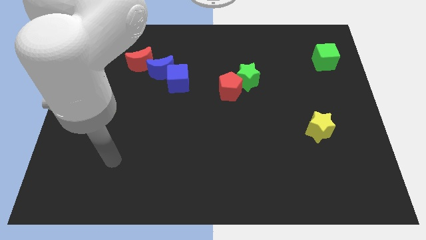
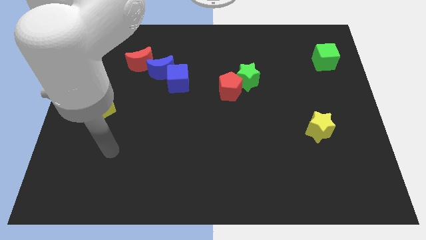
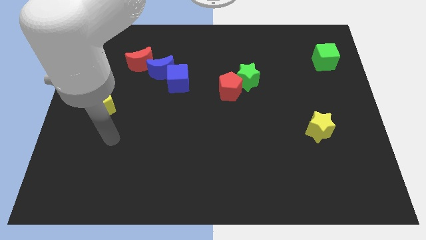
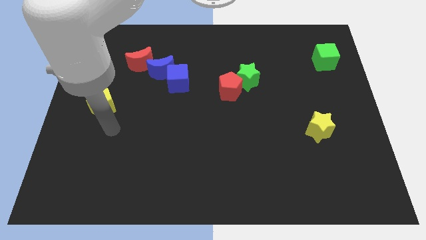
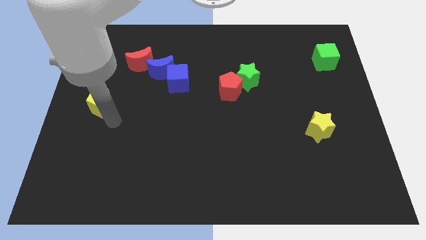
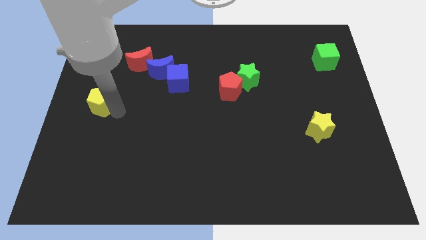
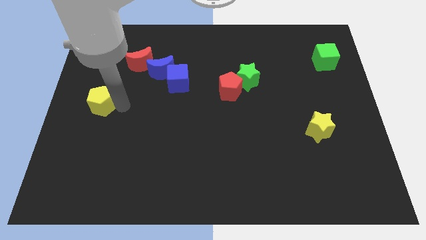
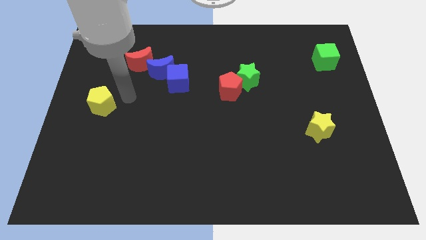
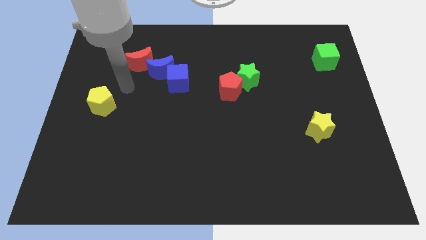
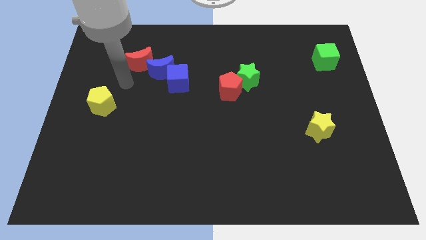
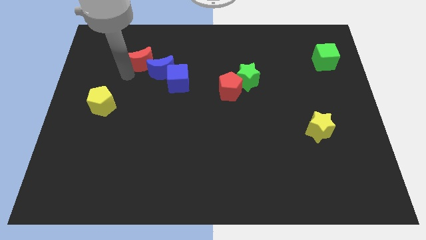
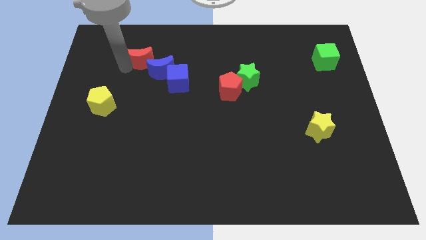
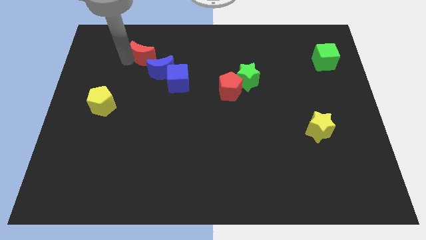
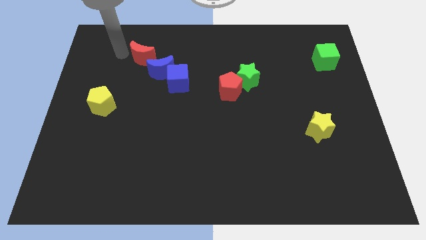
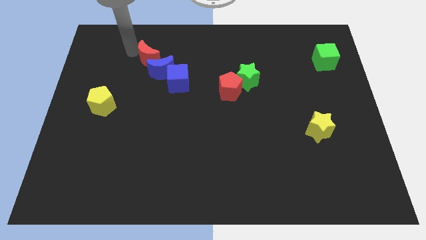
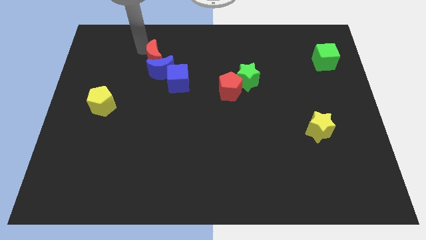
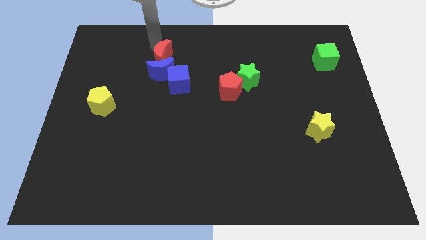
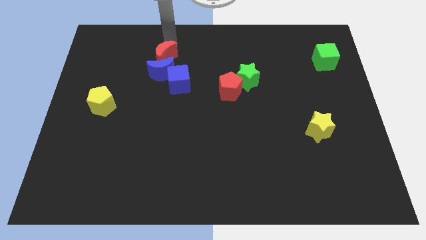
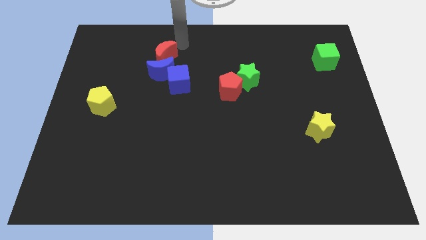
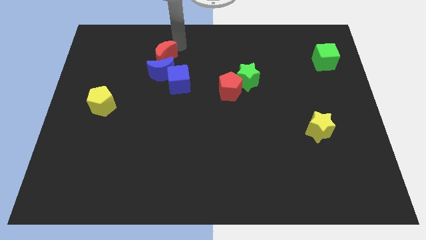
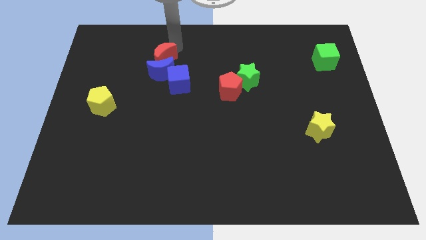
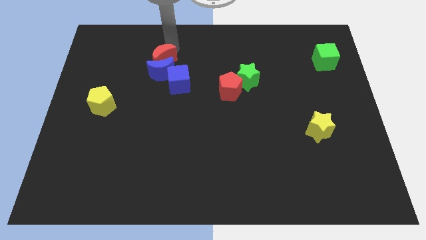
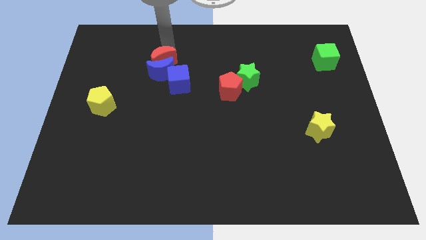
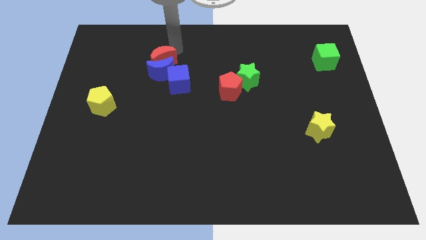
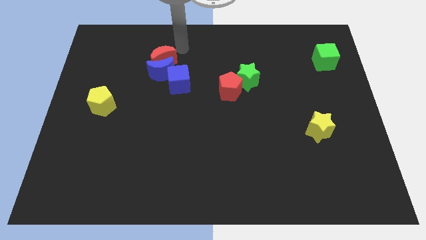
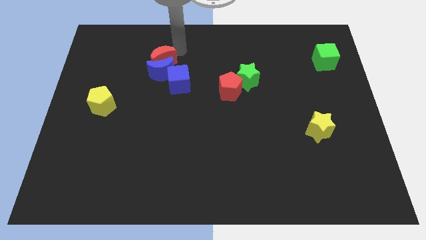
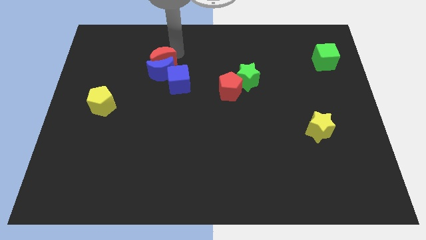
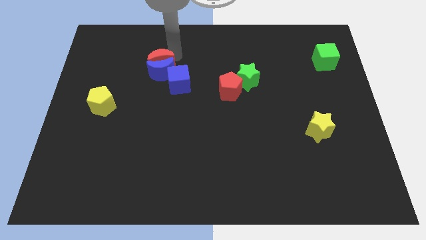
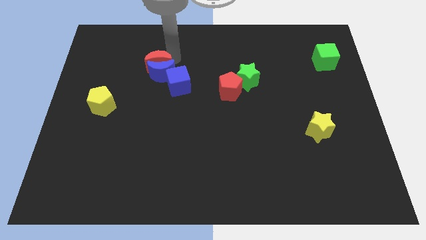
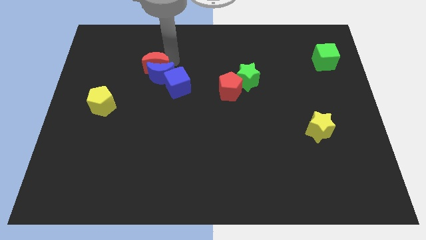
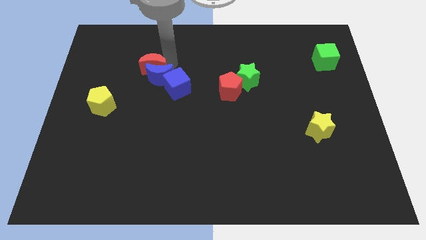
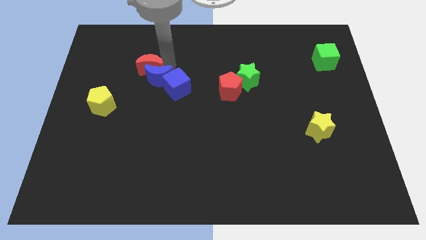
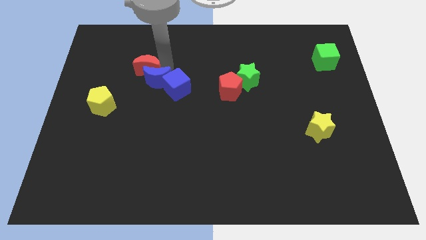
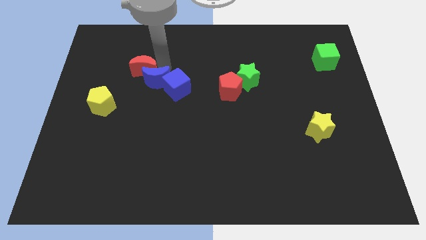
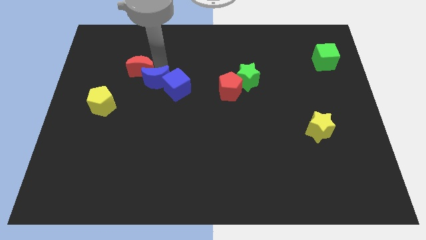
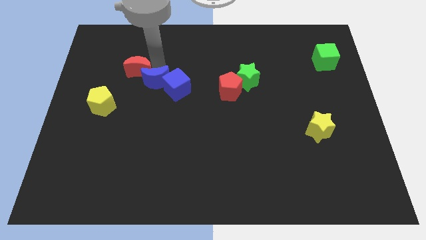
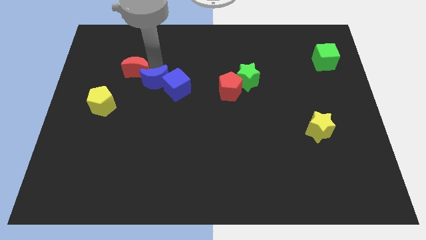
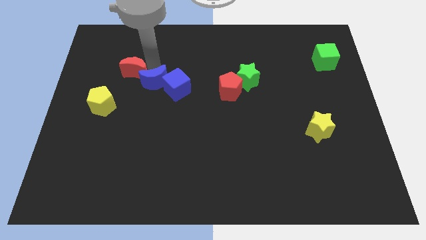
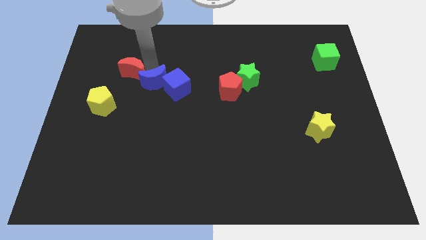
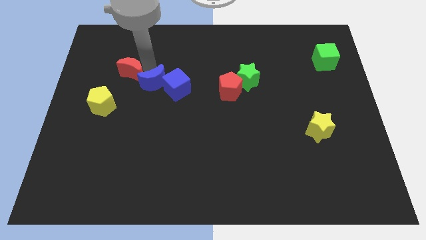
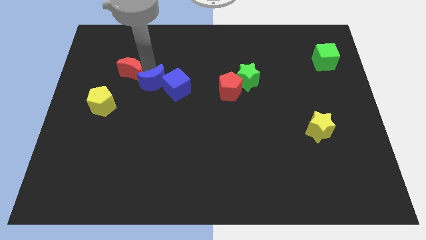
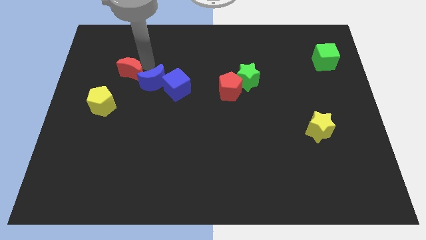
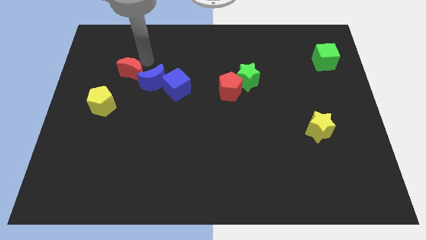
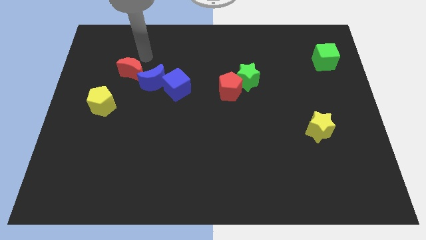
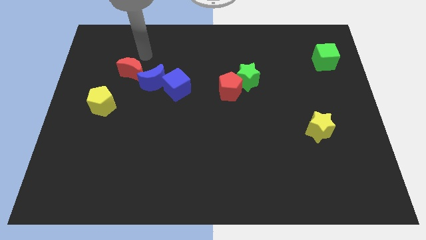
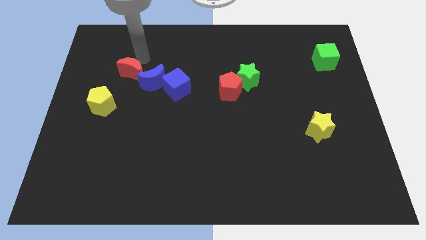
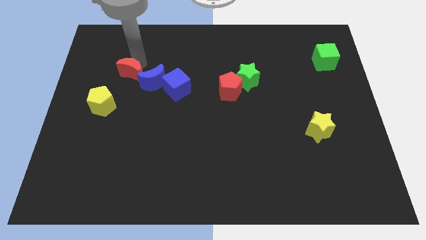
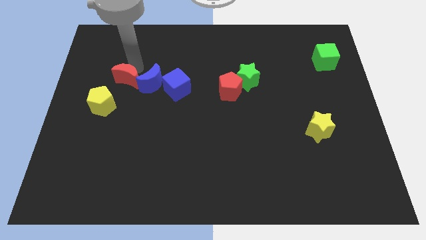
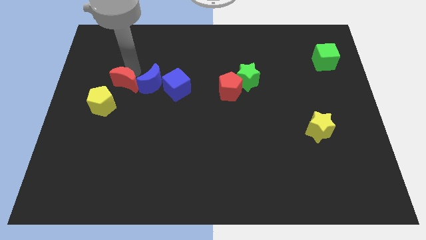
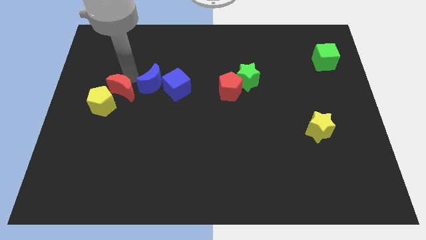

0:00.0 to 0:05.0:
put the red moon close to the yellow pentagon

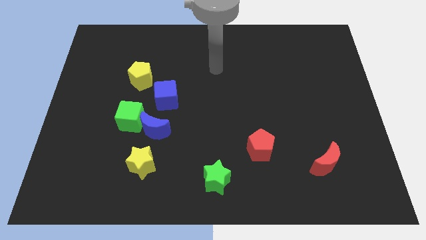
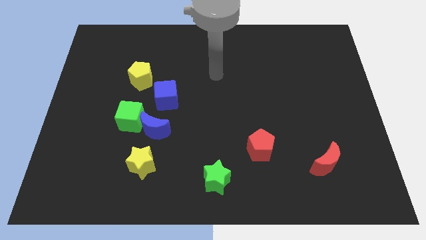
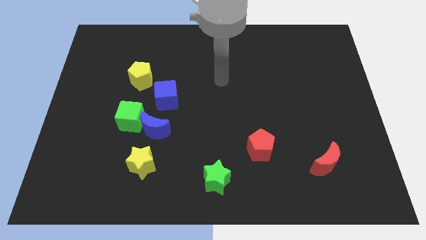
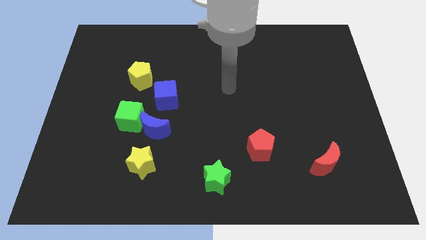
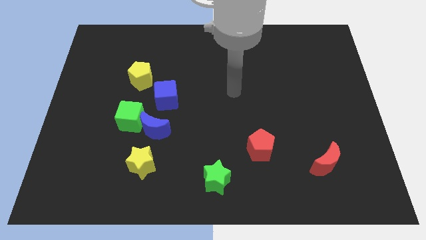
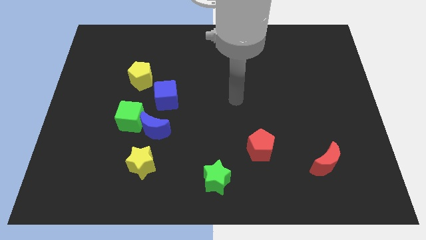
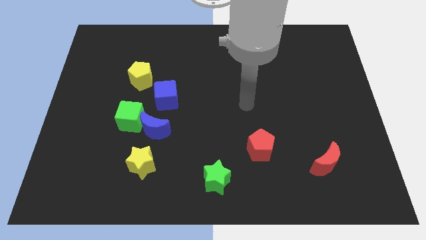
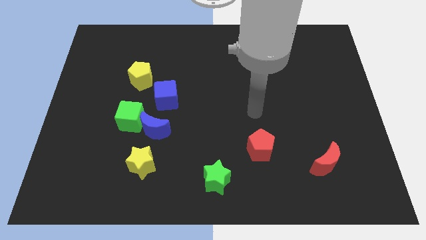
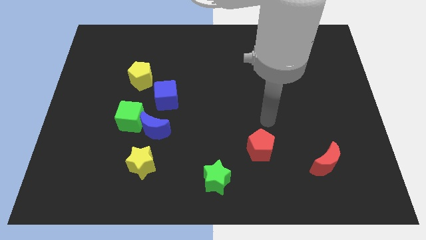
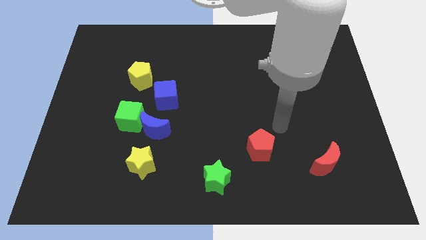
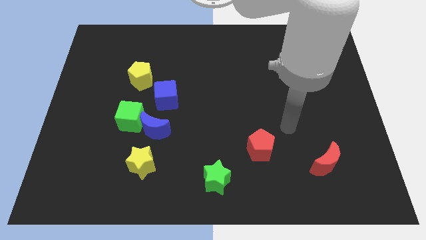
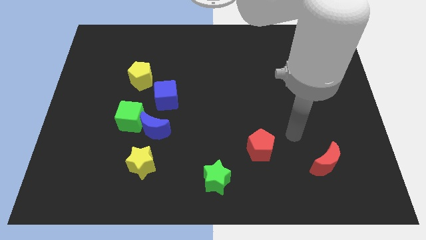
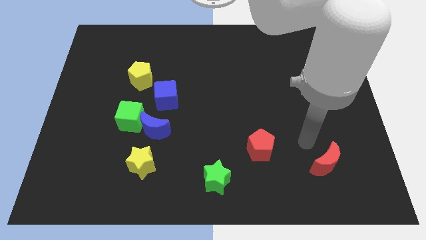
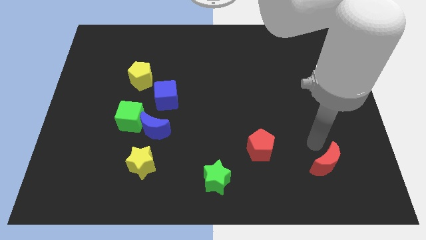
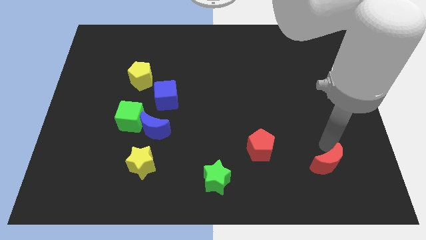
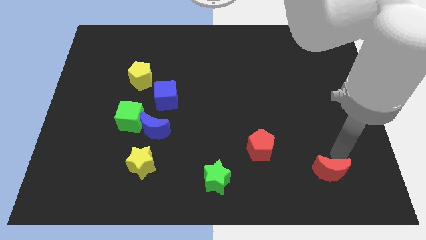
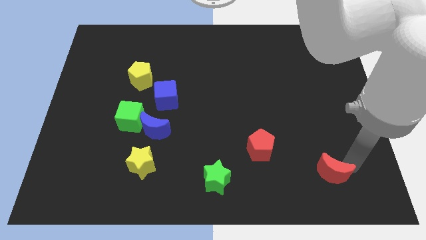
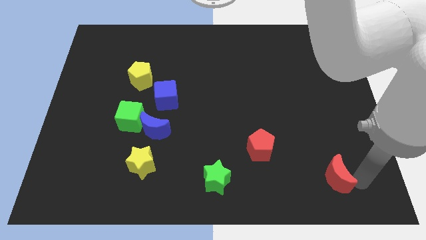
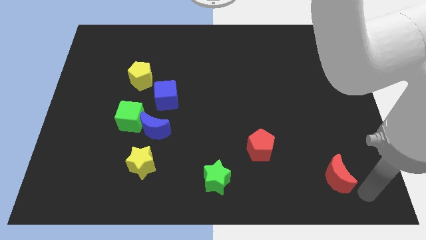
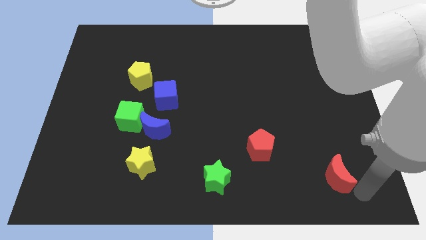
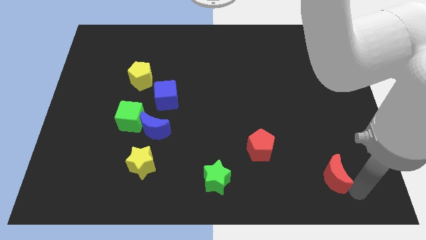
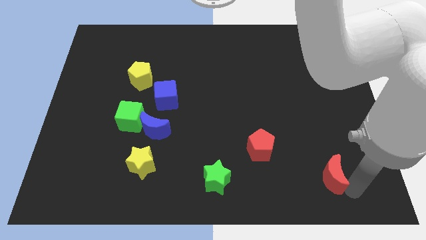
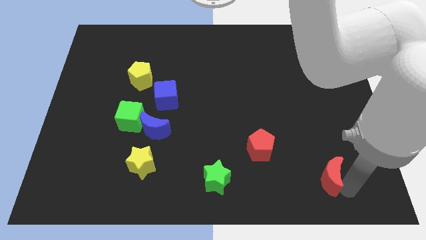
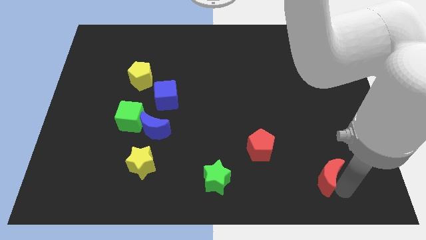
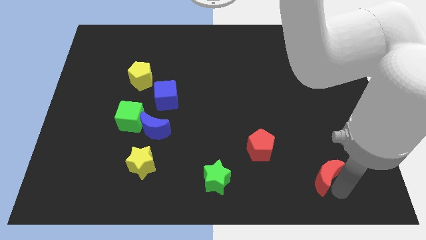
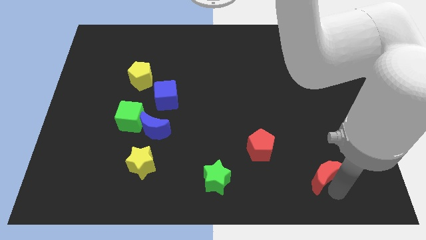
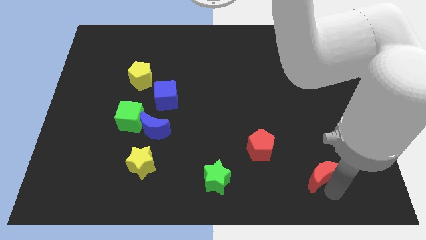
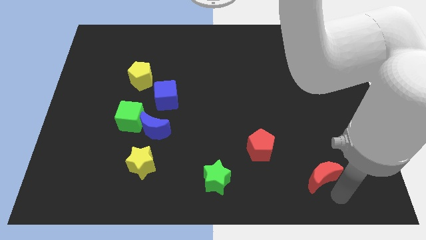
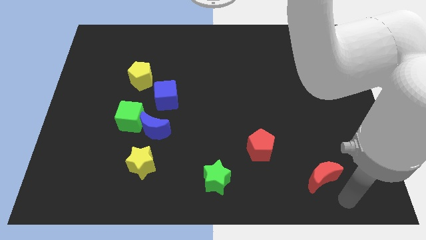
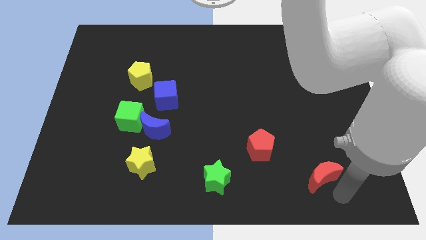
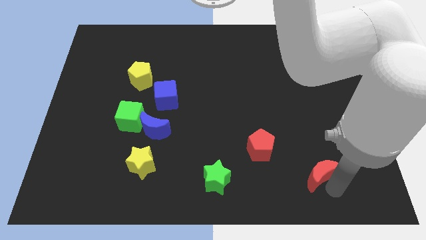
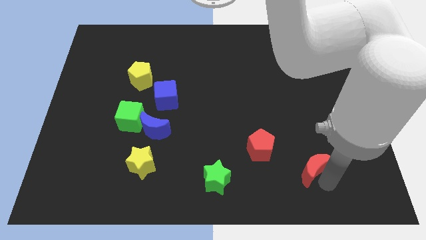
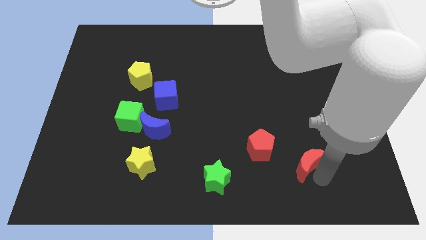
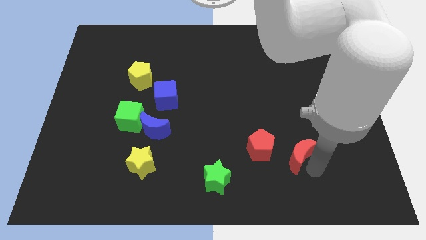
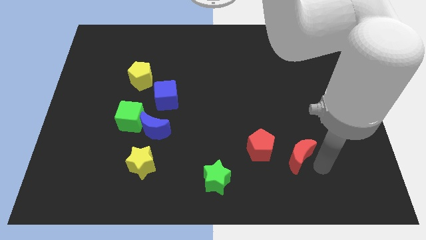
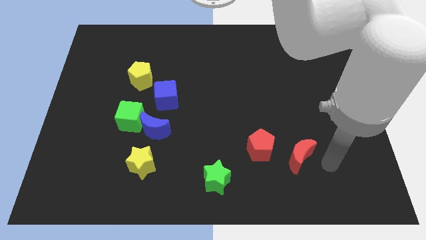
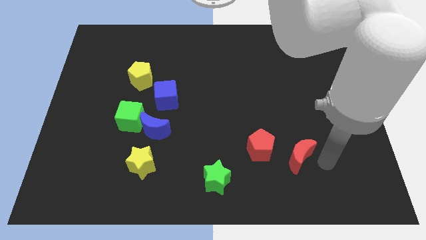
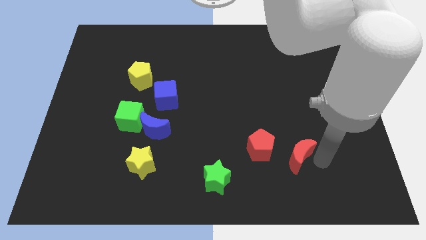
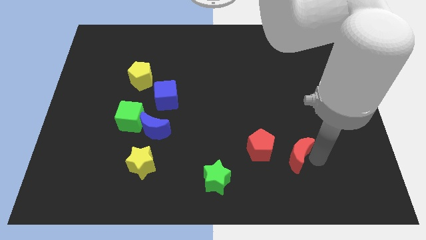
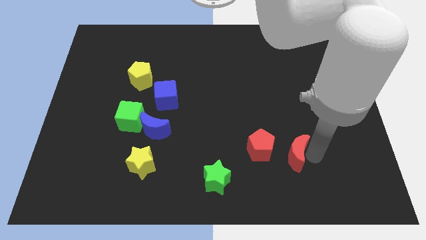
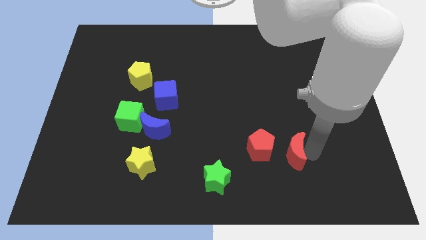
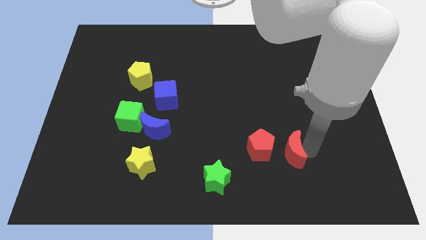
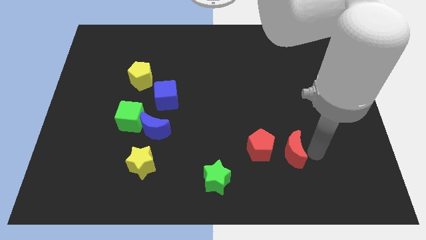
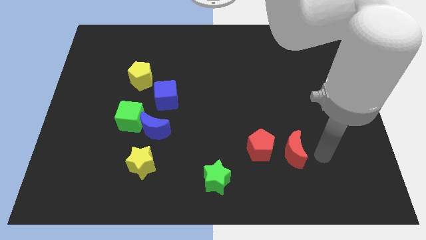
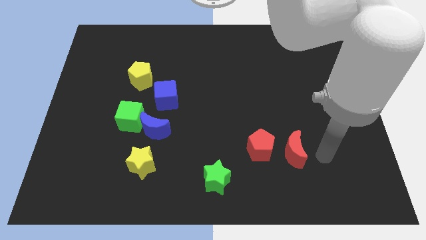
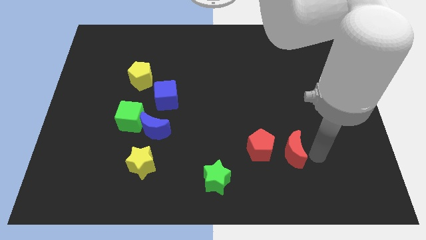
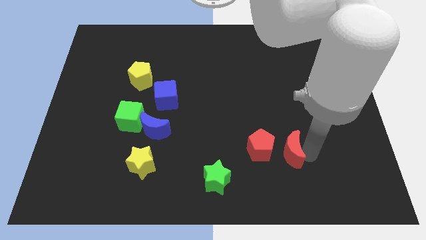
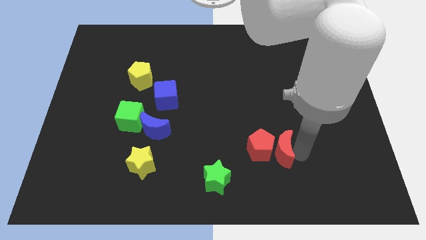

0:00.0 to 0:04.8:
move the red moon towards the red pentagon
